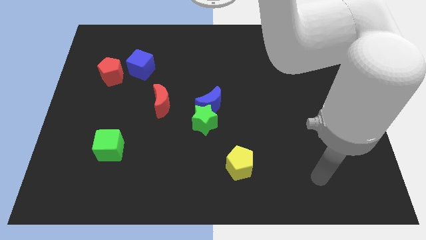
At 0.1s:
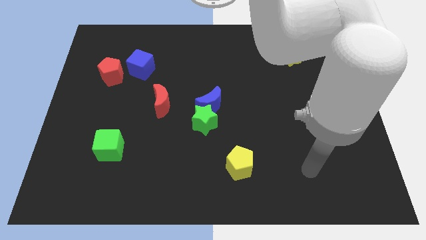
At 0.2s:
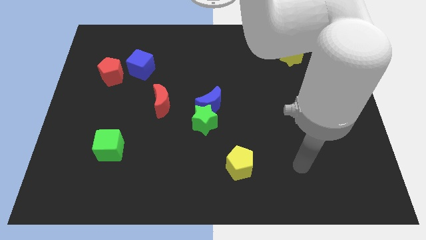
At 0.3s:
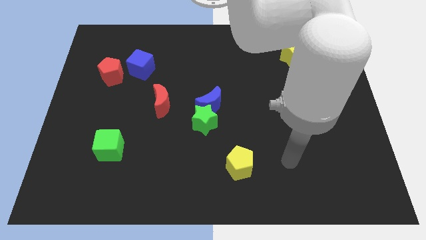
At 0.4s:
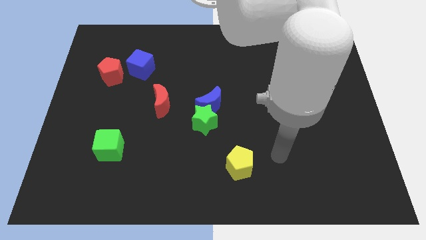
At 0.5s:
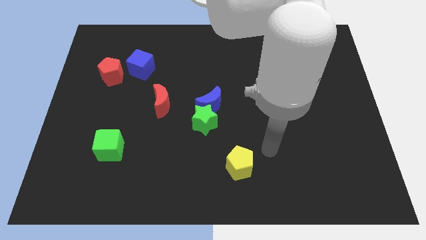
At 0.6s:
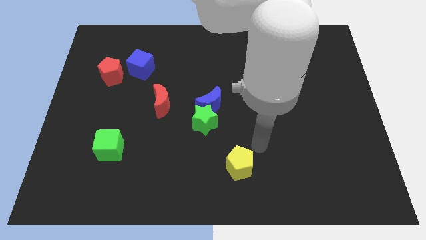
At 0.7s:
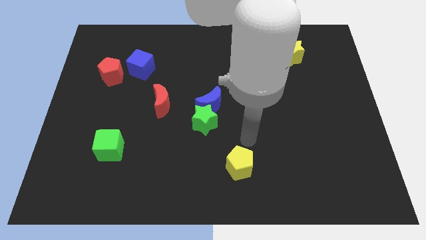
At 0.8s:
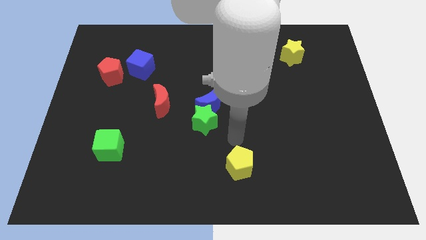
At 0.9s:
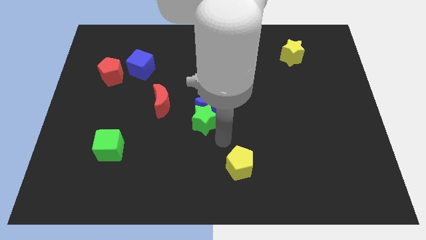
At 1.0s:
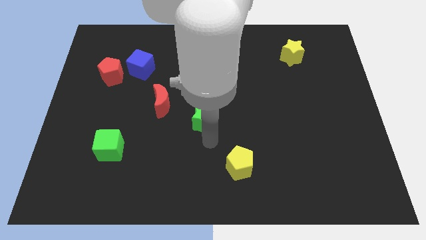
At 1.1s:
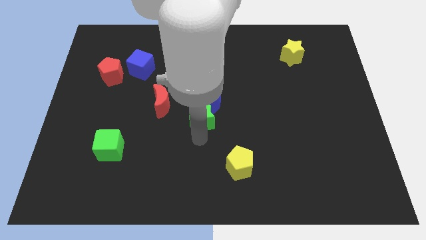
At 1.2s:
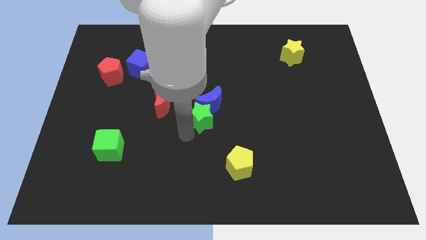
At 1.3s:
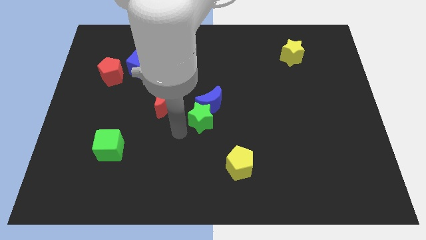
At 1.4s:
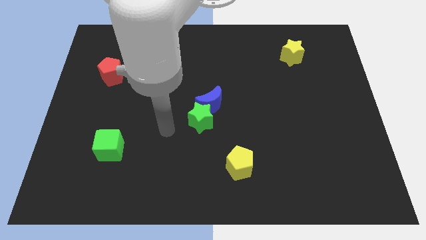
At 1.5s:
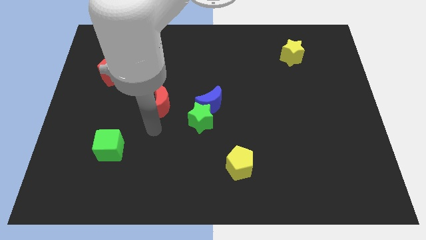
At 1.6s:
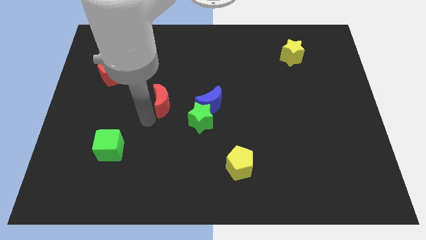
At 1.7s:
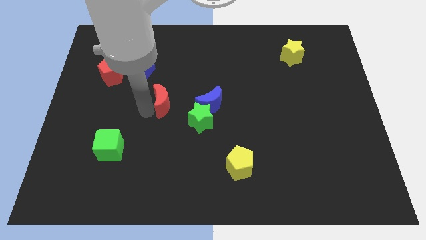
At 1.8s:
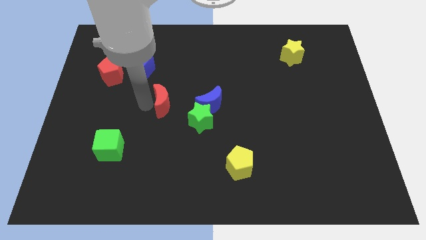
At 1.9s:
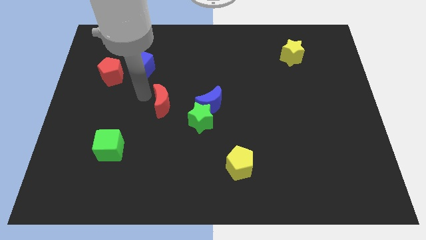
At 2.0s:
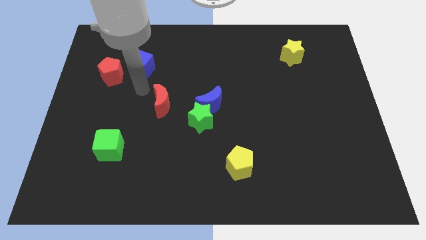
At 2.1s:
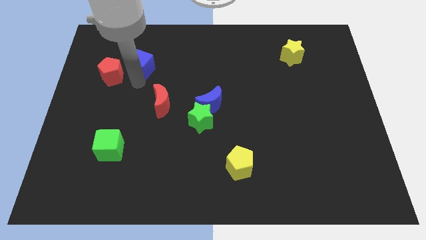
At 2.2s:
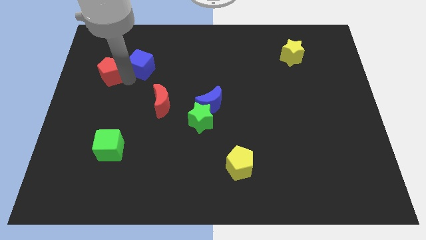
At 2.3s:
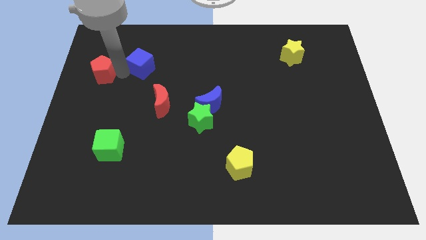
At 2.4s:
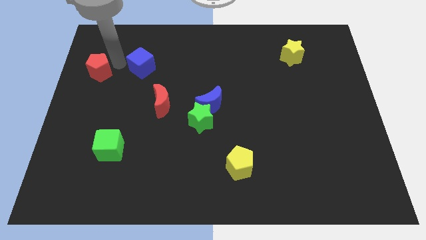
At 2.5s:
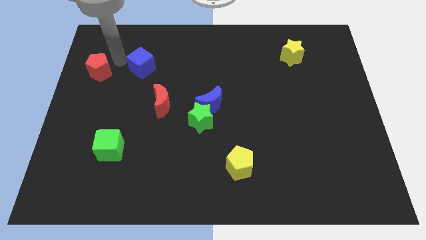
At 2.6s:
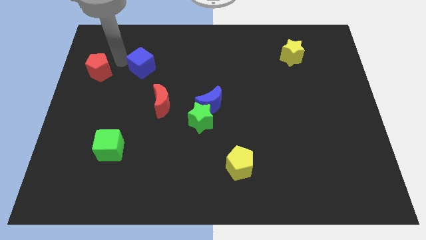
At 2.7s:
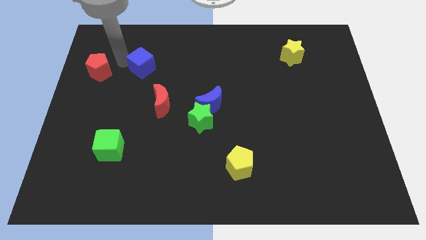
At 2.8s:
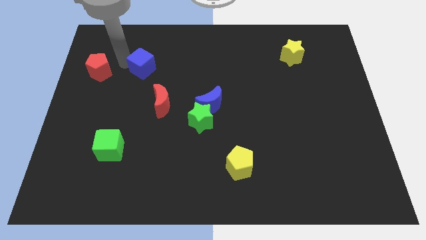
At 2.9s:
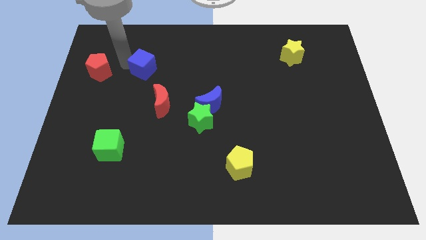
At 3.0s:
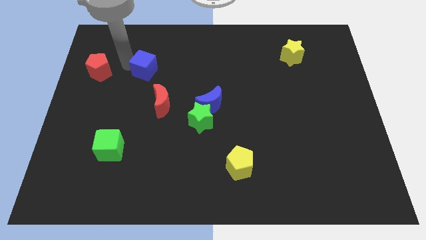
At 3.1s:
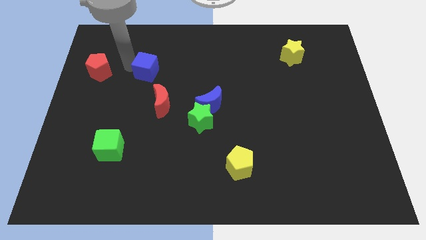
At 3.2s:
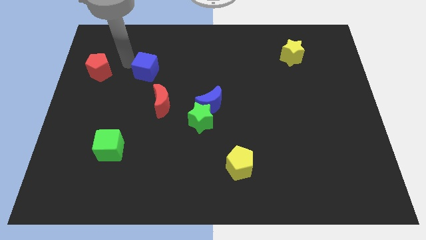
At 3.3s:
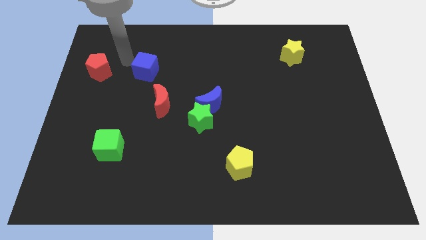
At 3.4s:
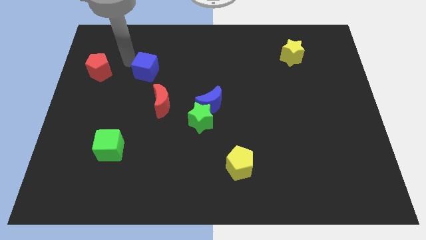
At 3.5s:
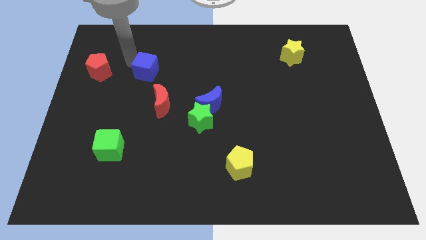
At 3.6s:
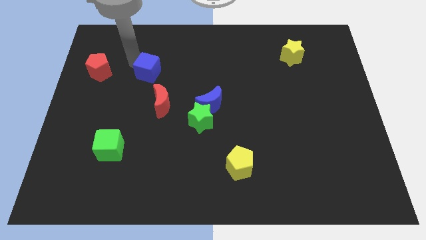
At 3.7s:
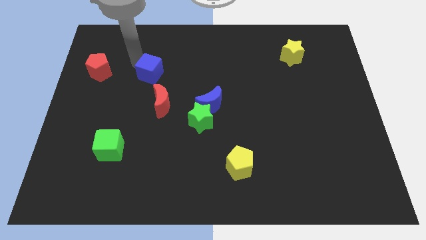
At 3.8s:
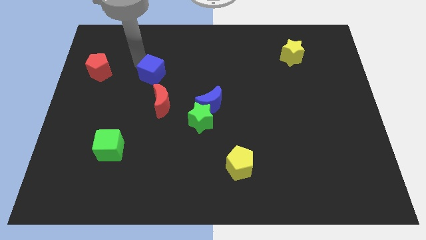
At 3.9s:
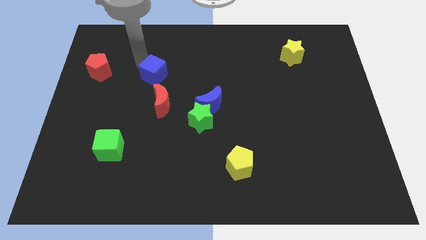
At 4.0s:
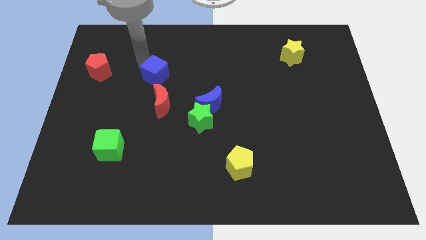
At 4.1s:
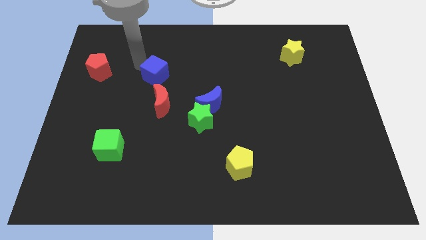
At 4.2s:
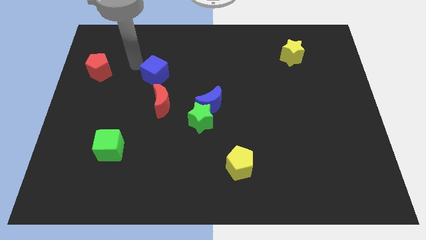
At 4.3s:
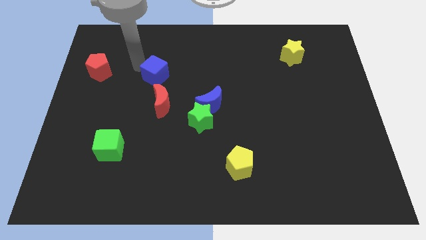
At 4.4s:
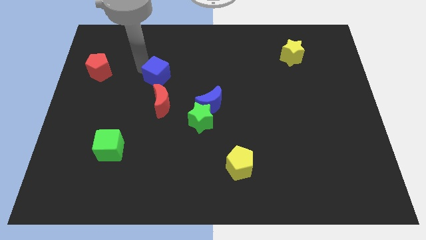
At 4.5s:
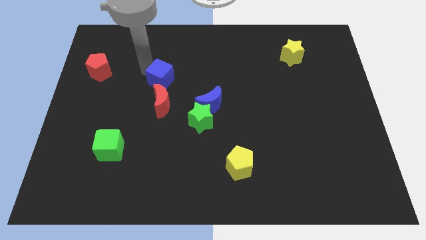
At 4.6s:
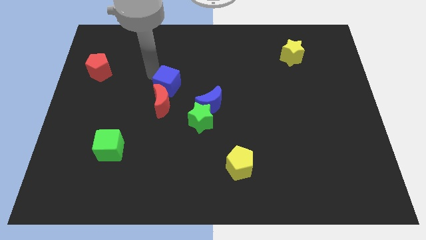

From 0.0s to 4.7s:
push the blue cube to the top left of the blue moon

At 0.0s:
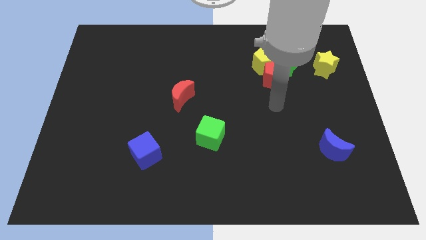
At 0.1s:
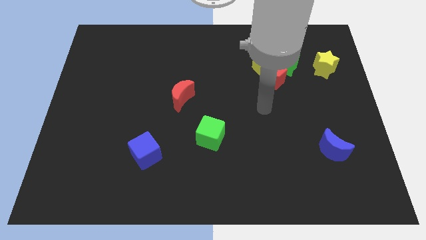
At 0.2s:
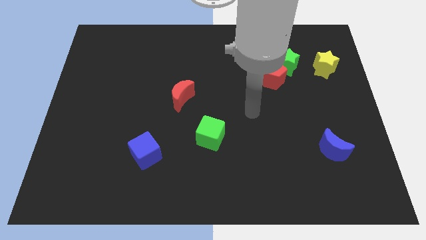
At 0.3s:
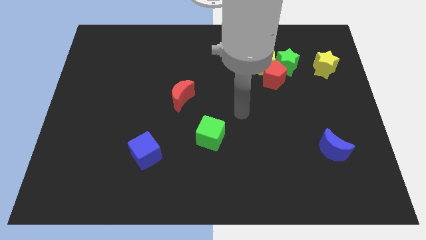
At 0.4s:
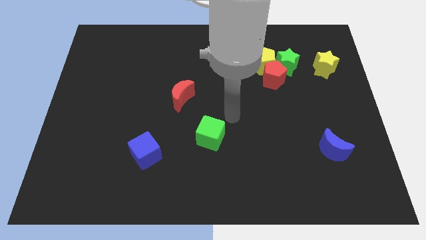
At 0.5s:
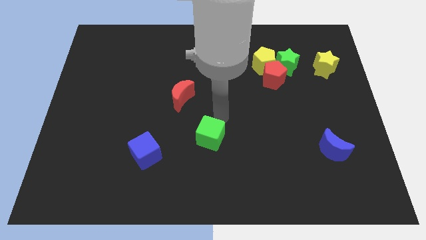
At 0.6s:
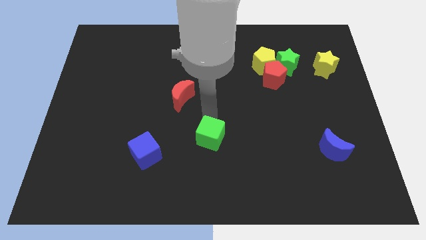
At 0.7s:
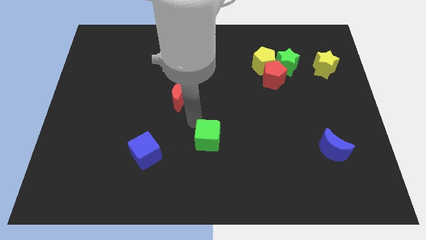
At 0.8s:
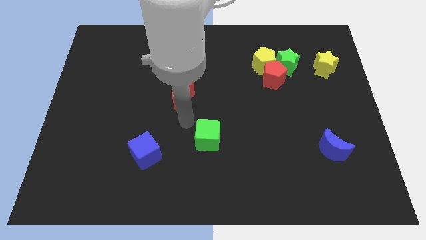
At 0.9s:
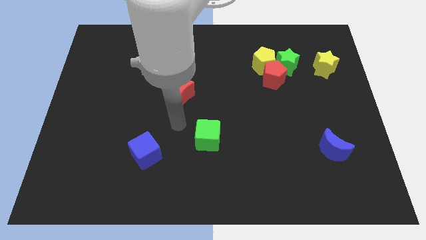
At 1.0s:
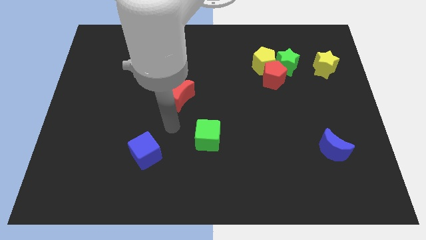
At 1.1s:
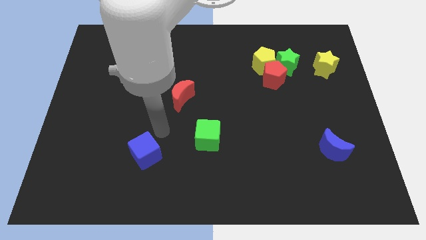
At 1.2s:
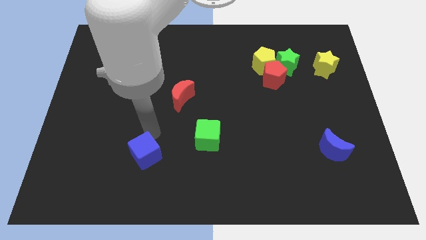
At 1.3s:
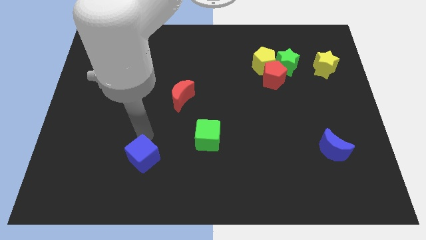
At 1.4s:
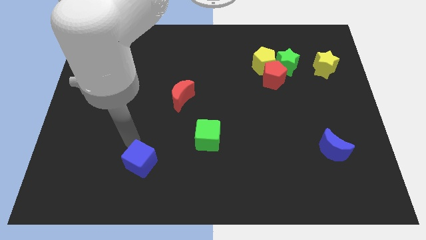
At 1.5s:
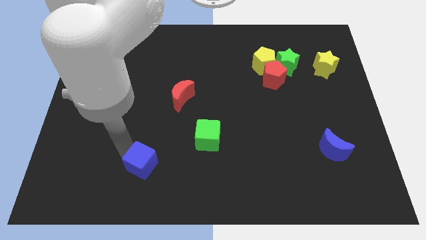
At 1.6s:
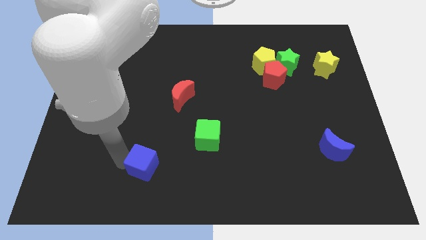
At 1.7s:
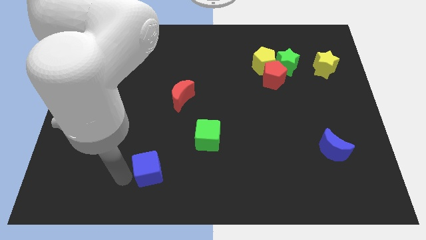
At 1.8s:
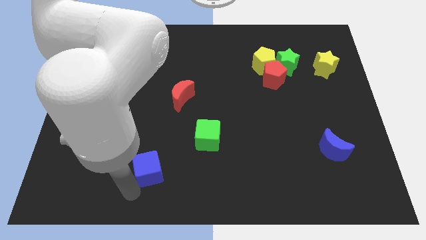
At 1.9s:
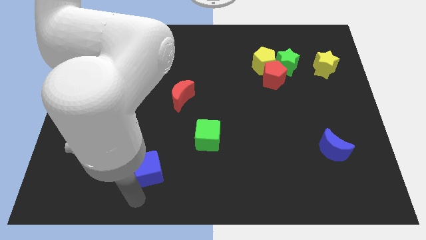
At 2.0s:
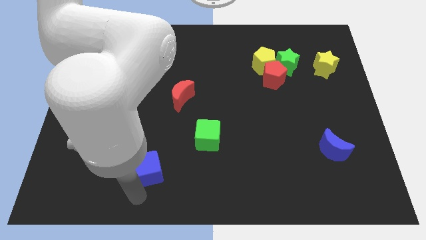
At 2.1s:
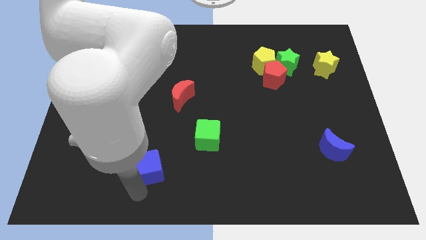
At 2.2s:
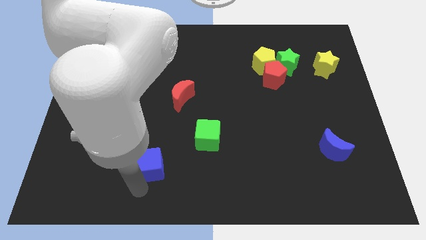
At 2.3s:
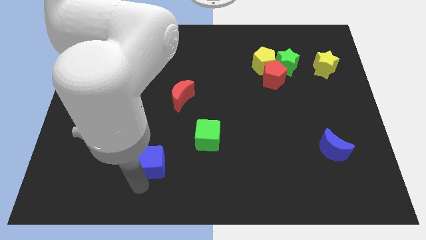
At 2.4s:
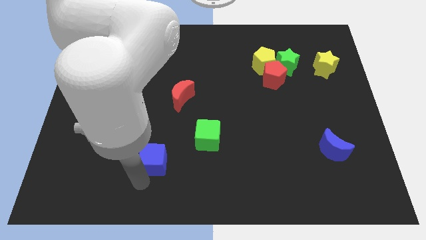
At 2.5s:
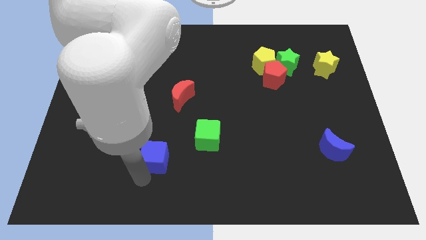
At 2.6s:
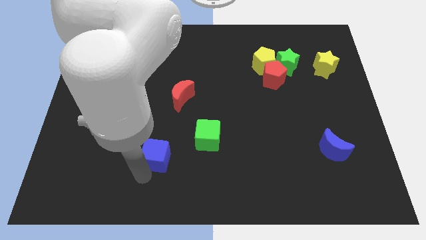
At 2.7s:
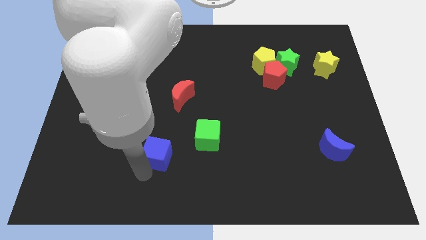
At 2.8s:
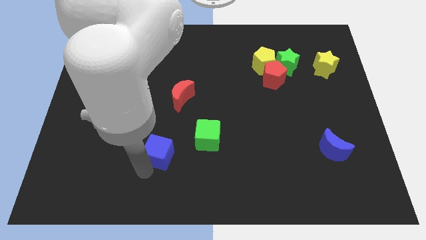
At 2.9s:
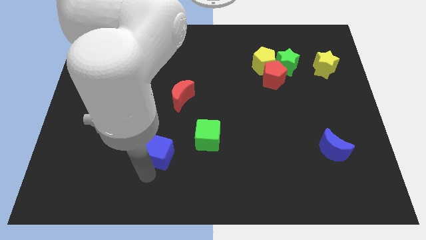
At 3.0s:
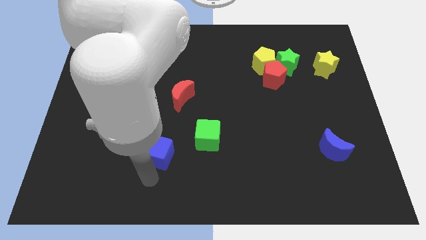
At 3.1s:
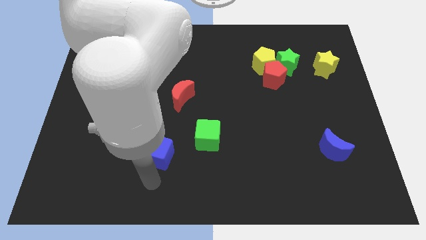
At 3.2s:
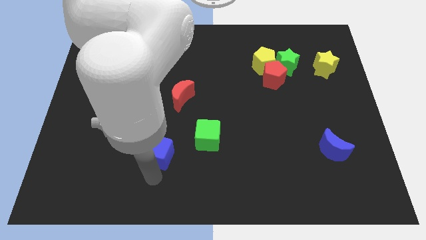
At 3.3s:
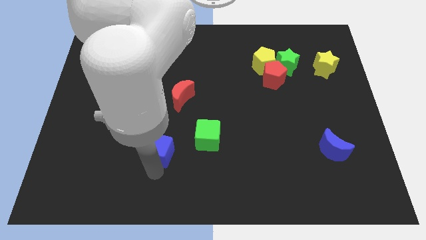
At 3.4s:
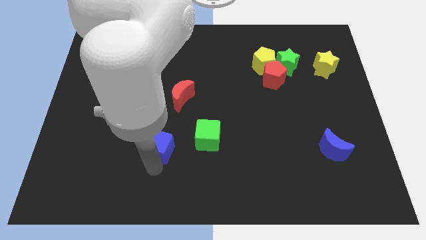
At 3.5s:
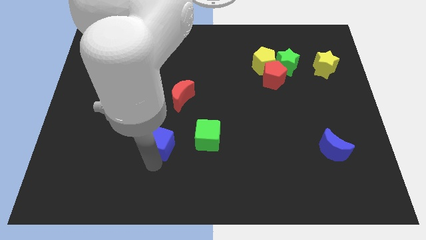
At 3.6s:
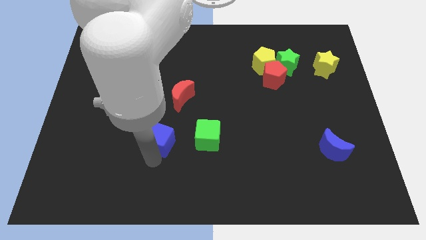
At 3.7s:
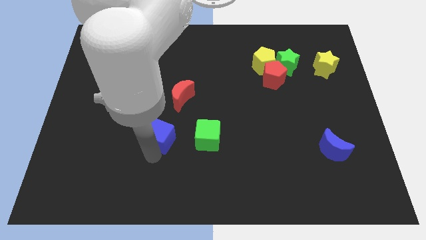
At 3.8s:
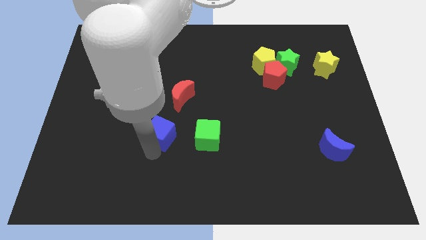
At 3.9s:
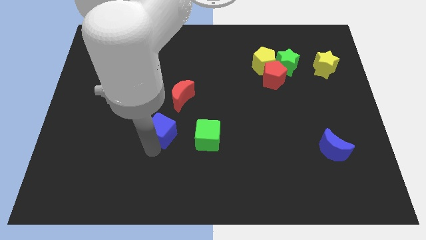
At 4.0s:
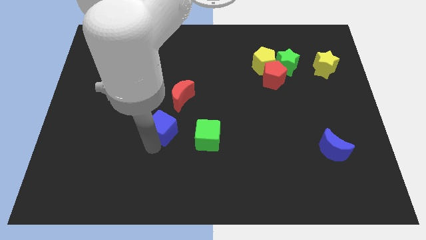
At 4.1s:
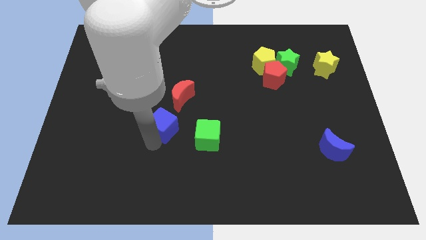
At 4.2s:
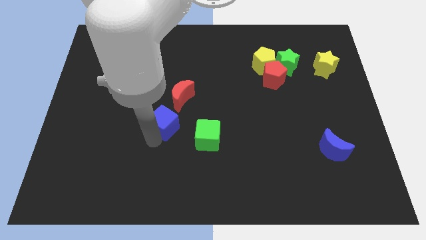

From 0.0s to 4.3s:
push the blue cube to the top left side of the green cube
